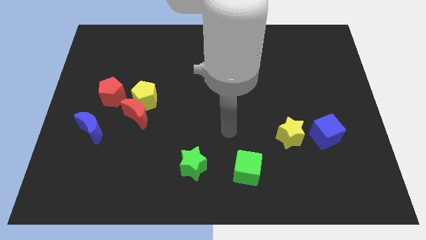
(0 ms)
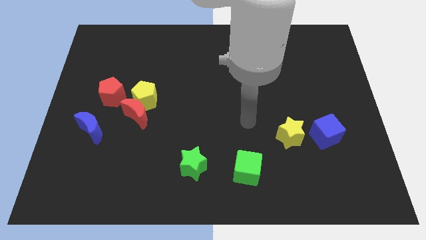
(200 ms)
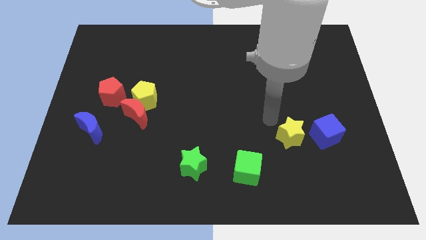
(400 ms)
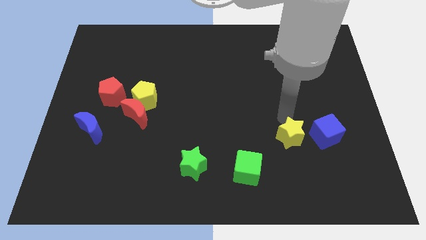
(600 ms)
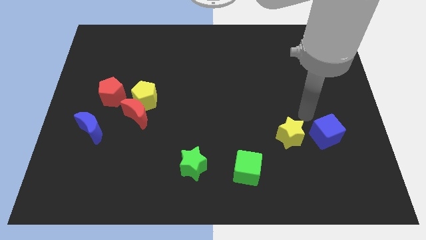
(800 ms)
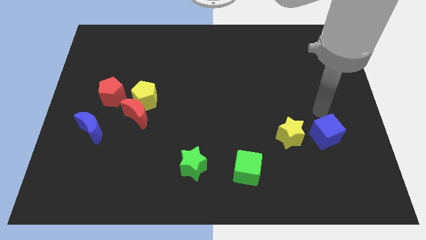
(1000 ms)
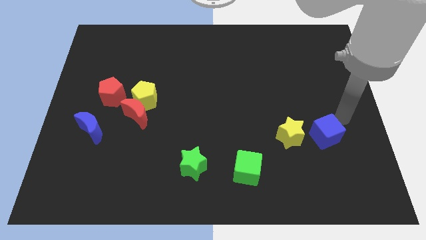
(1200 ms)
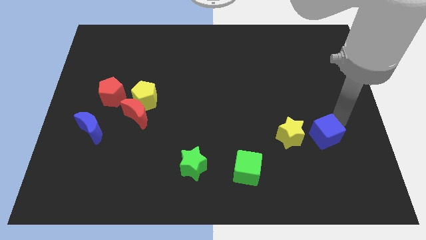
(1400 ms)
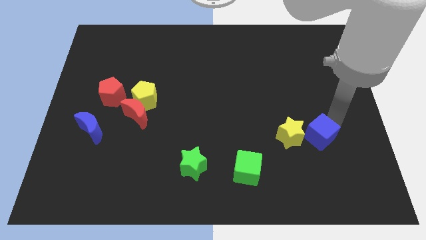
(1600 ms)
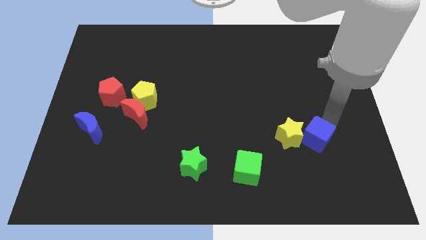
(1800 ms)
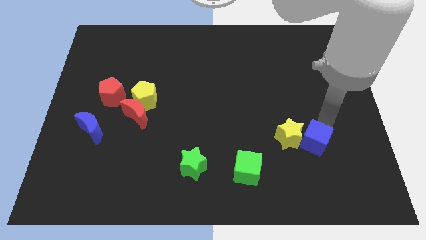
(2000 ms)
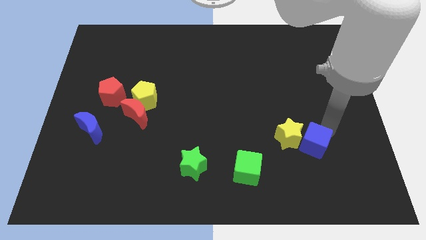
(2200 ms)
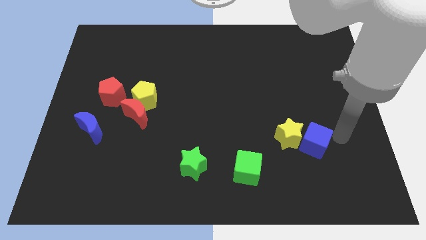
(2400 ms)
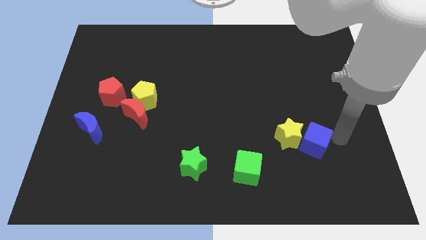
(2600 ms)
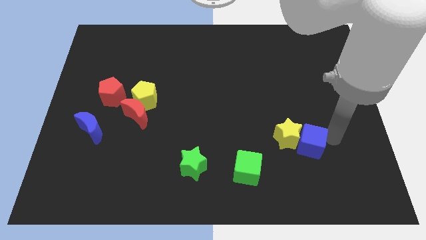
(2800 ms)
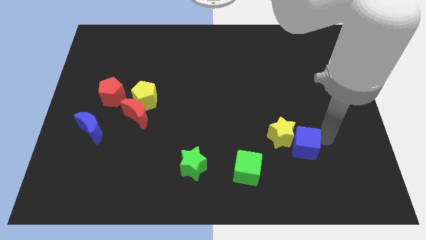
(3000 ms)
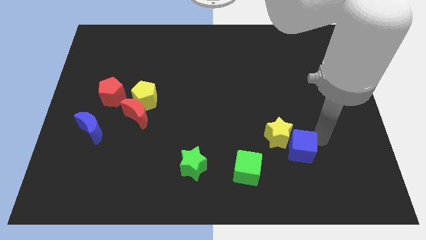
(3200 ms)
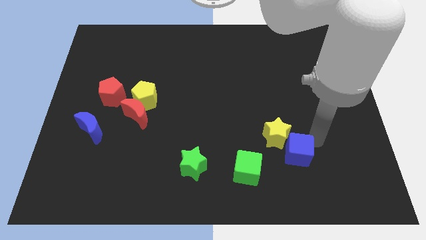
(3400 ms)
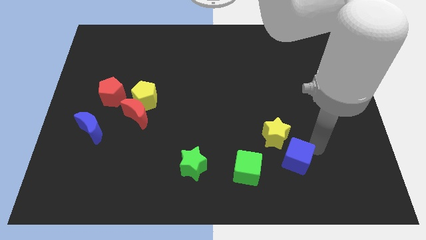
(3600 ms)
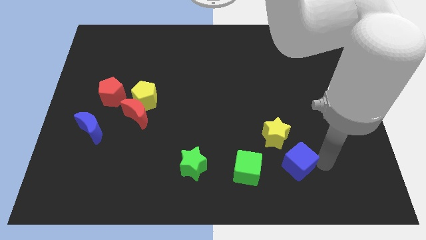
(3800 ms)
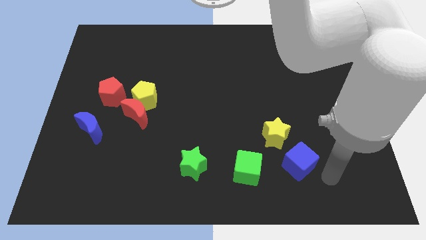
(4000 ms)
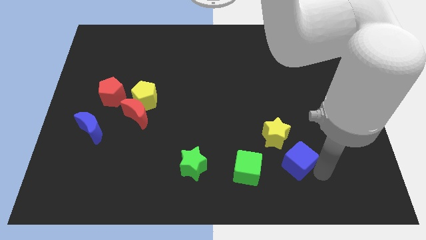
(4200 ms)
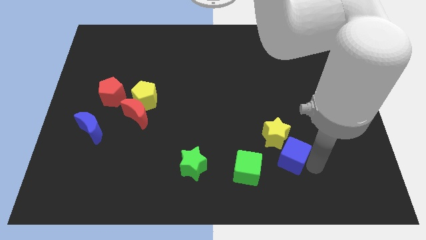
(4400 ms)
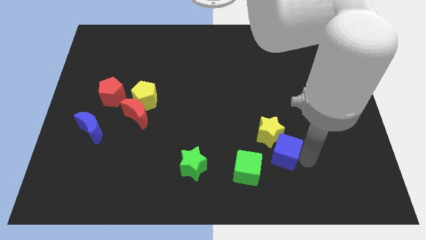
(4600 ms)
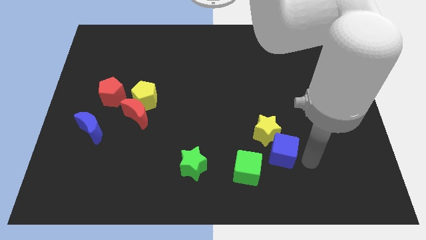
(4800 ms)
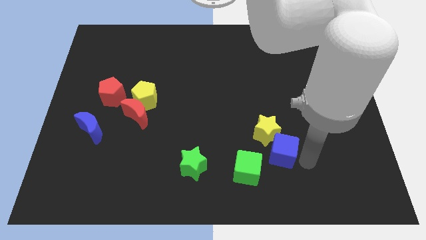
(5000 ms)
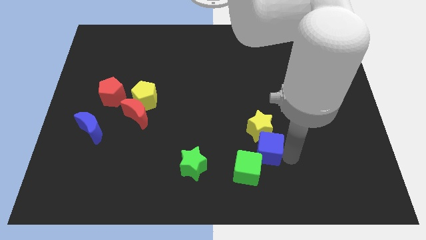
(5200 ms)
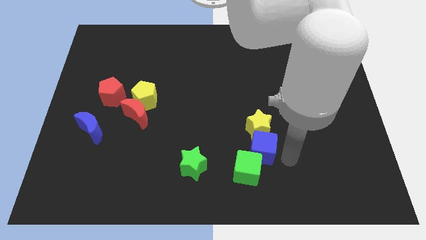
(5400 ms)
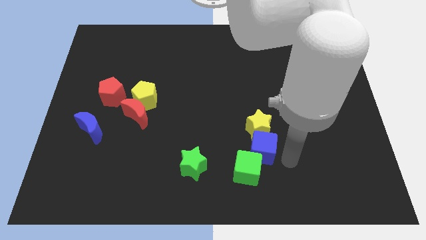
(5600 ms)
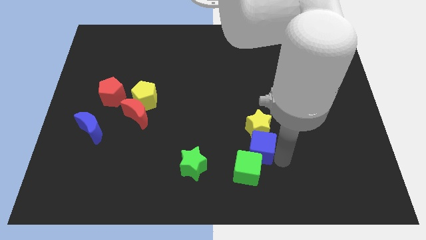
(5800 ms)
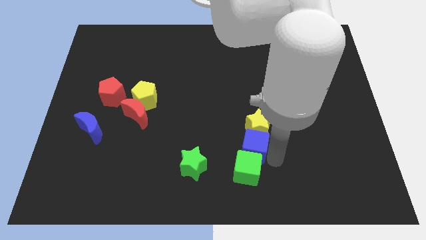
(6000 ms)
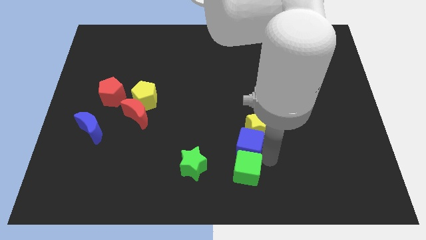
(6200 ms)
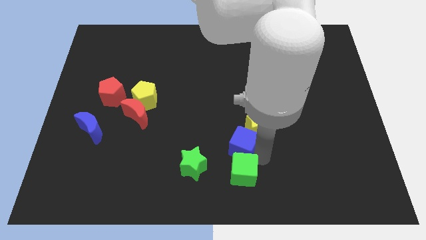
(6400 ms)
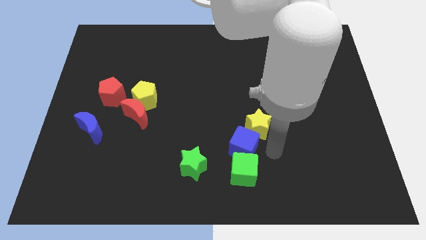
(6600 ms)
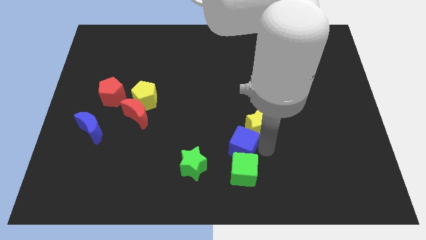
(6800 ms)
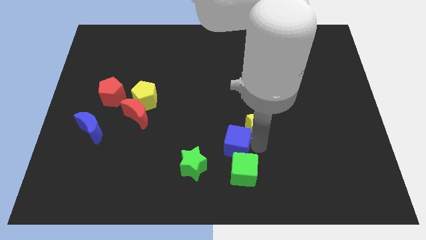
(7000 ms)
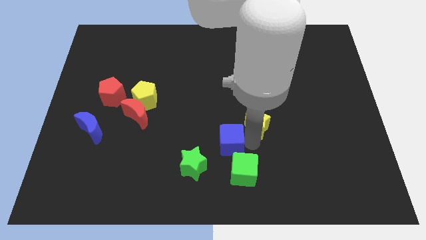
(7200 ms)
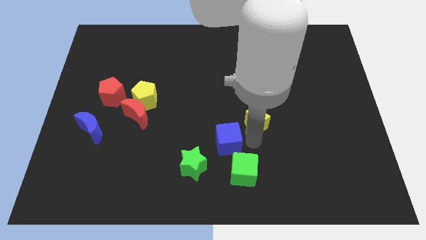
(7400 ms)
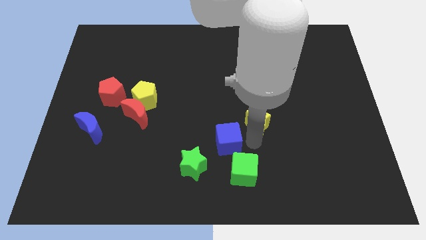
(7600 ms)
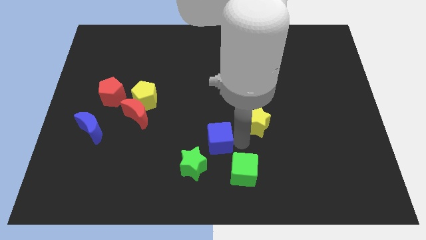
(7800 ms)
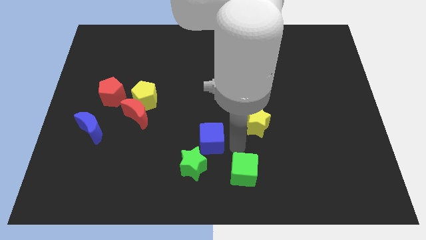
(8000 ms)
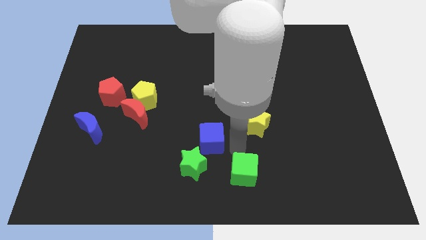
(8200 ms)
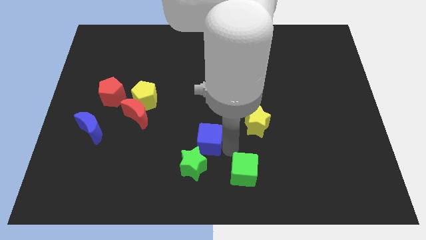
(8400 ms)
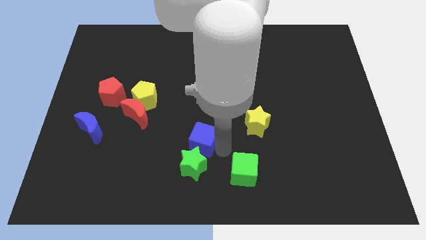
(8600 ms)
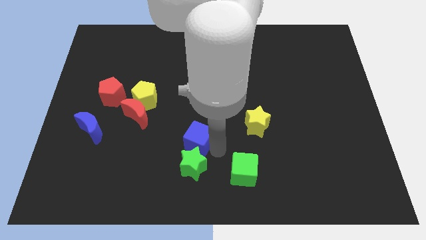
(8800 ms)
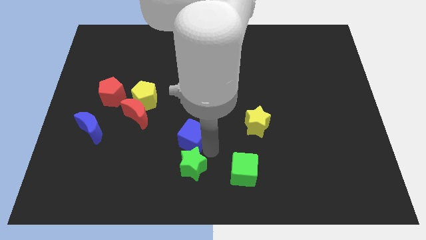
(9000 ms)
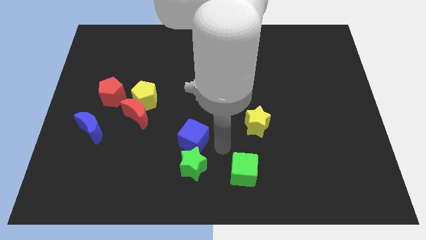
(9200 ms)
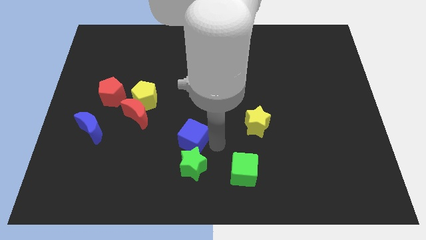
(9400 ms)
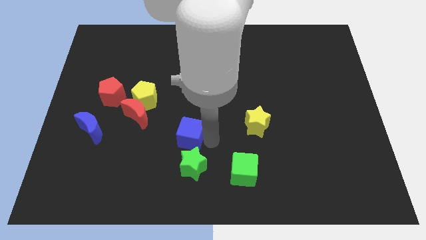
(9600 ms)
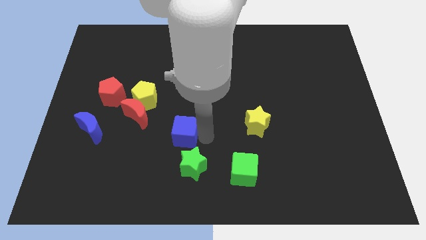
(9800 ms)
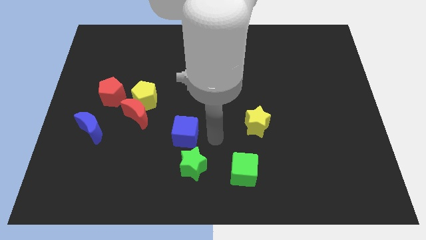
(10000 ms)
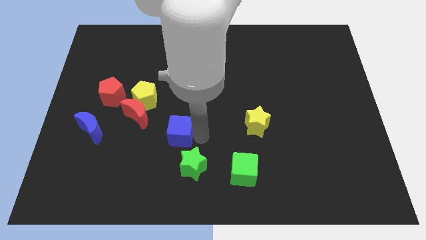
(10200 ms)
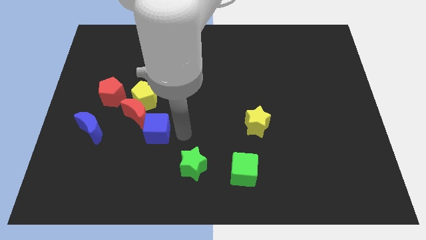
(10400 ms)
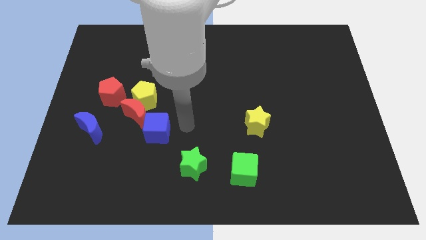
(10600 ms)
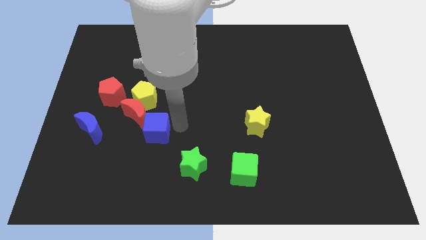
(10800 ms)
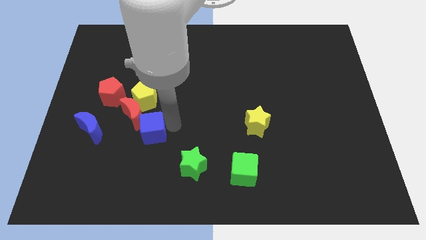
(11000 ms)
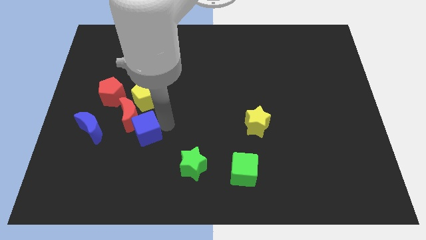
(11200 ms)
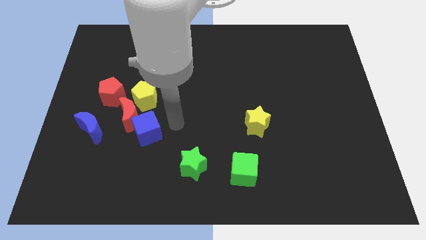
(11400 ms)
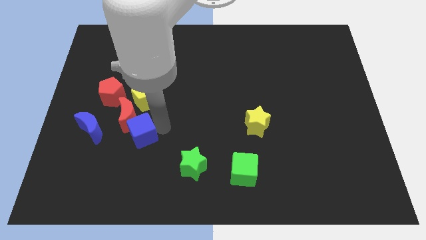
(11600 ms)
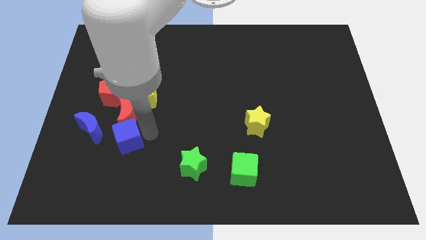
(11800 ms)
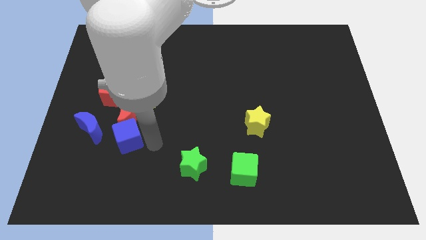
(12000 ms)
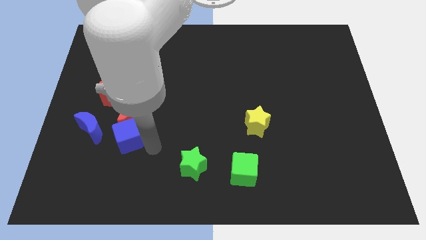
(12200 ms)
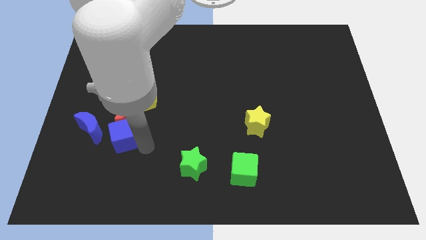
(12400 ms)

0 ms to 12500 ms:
slide the blue cube to the bottom of the red pentagon

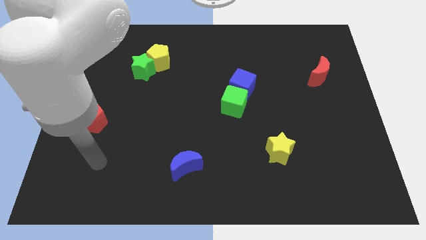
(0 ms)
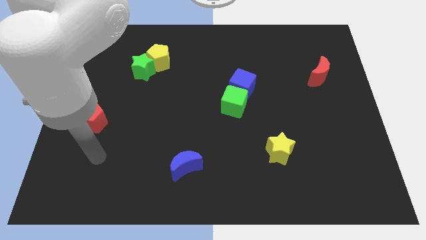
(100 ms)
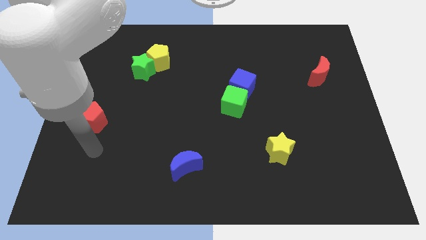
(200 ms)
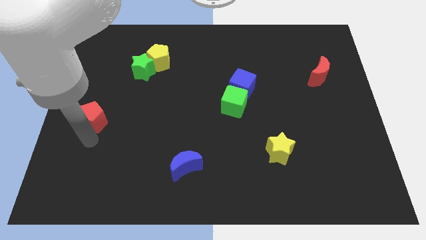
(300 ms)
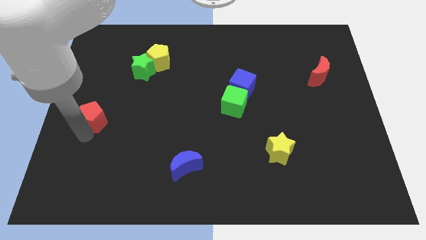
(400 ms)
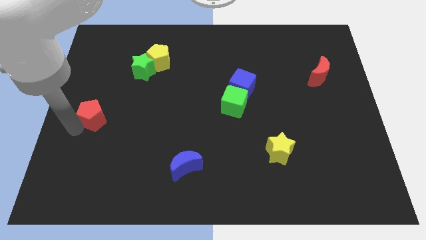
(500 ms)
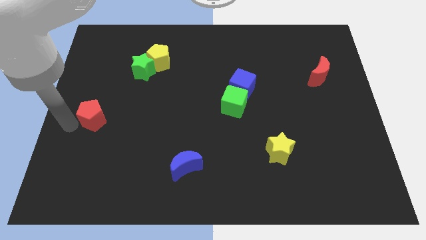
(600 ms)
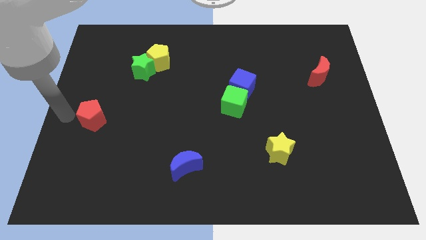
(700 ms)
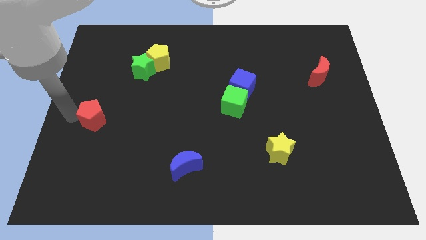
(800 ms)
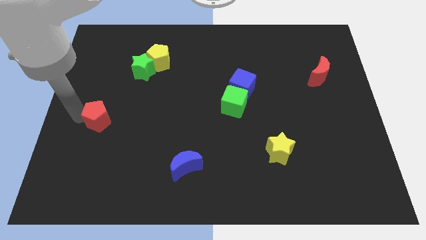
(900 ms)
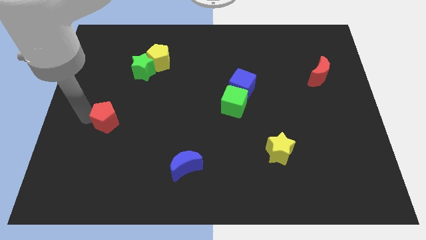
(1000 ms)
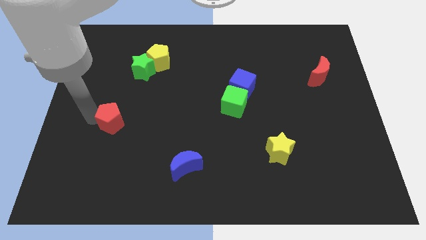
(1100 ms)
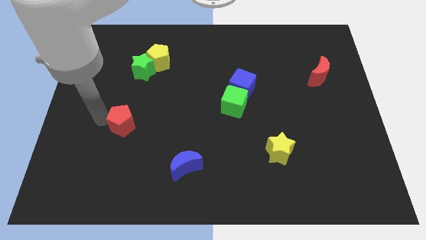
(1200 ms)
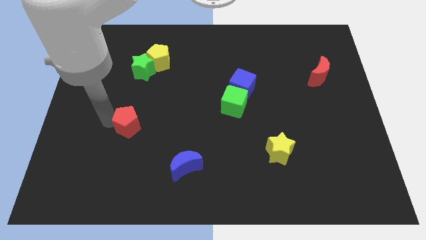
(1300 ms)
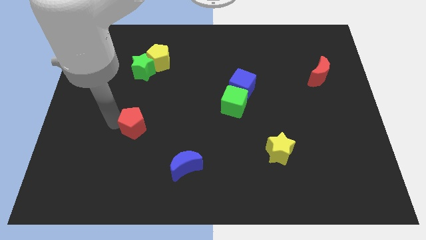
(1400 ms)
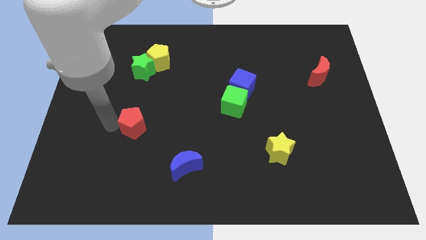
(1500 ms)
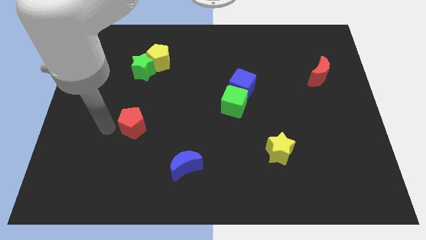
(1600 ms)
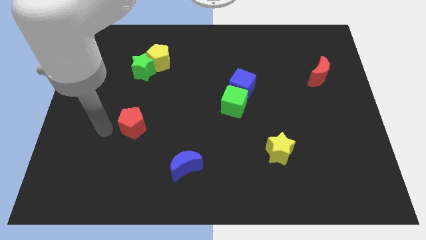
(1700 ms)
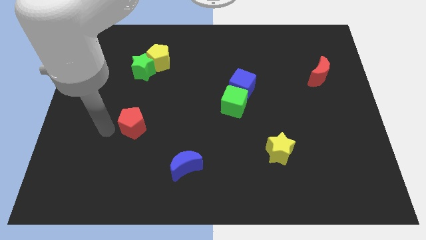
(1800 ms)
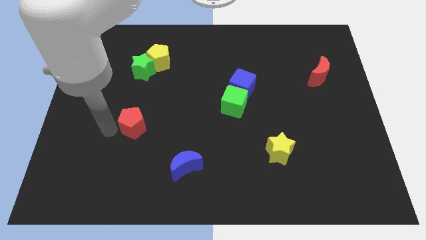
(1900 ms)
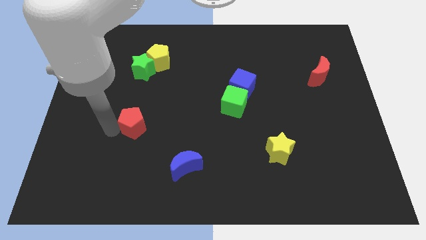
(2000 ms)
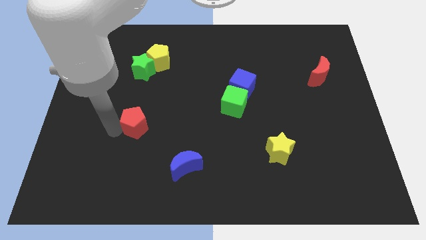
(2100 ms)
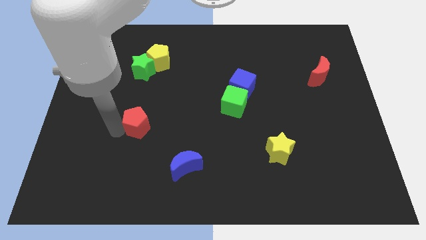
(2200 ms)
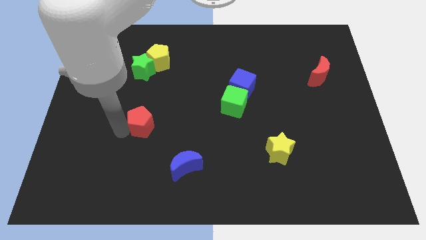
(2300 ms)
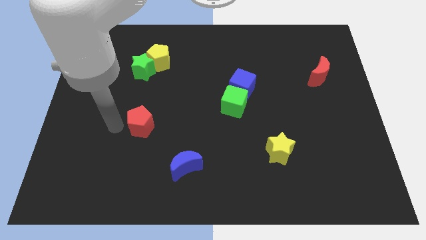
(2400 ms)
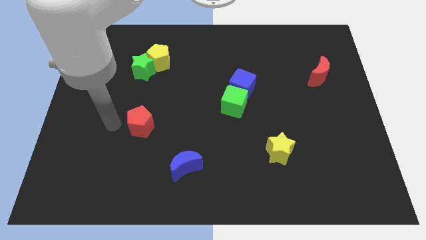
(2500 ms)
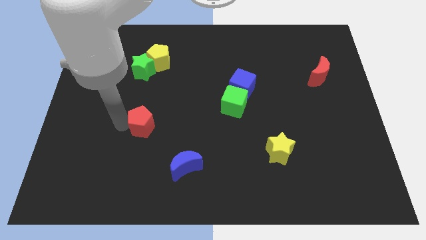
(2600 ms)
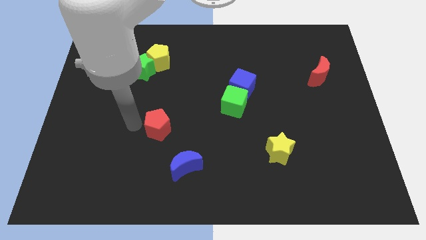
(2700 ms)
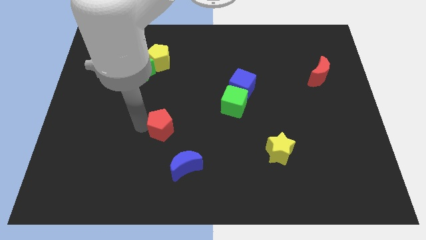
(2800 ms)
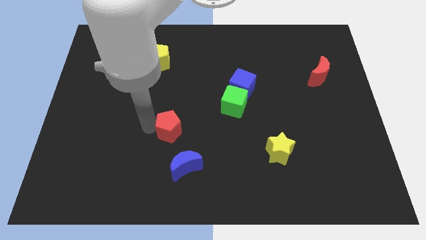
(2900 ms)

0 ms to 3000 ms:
put the red pentagon to the top of the blue moon
